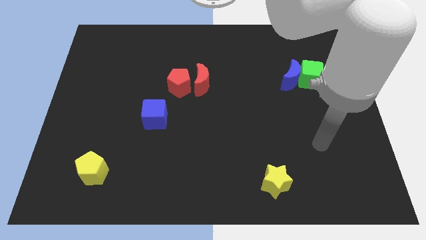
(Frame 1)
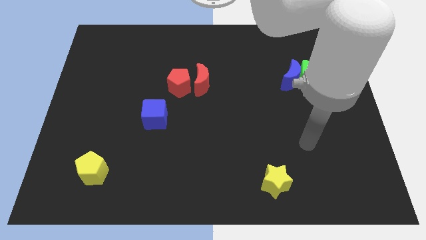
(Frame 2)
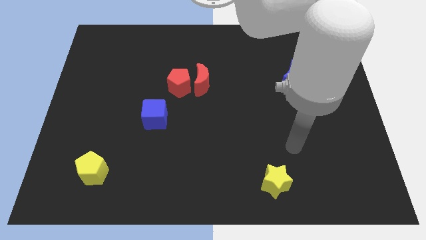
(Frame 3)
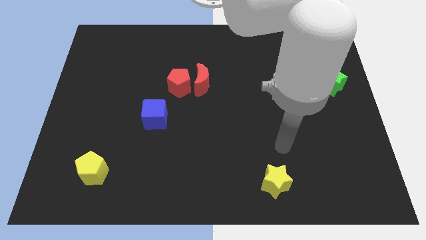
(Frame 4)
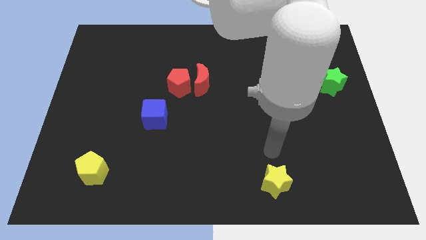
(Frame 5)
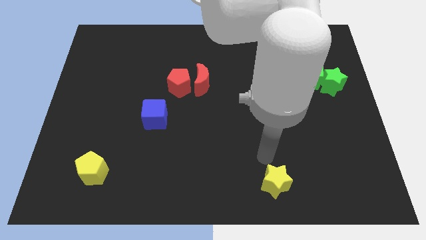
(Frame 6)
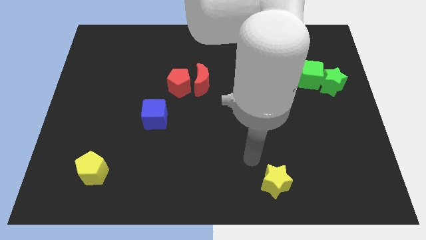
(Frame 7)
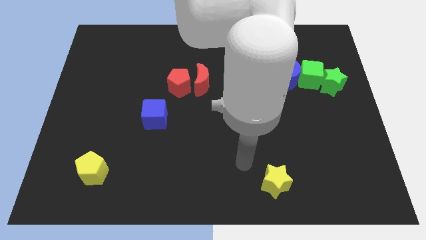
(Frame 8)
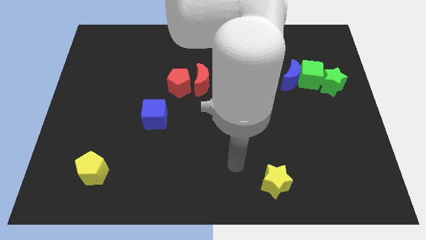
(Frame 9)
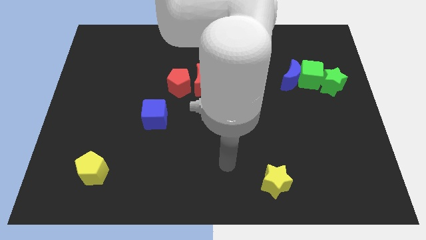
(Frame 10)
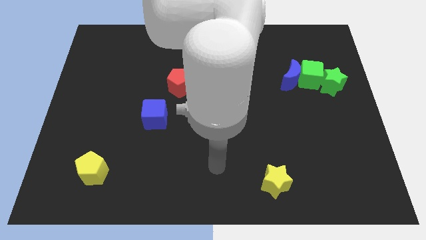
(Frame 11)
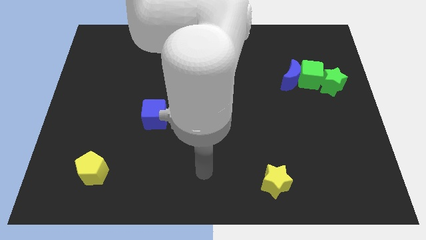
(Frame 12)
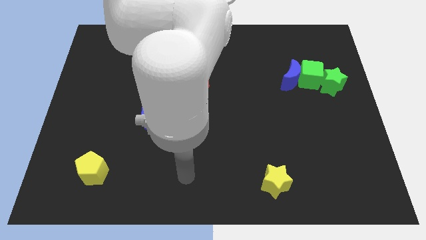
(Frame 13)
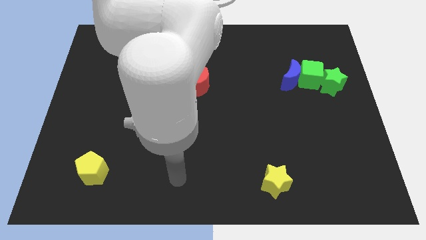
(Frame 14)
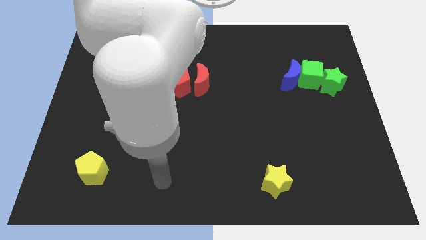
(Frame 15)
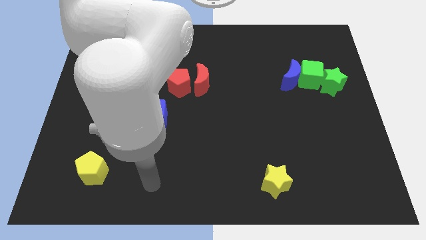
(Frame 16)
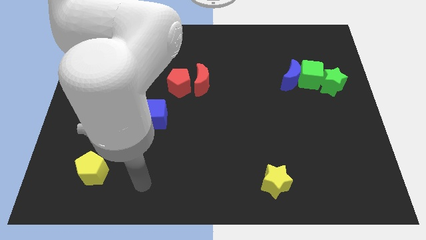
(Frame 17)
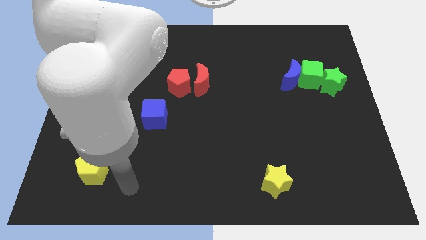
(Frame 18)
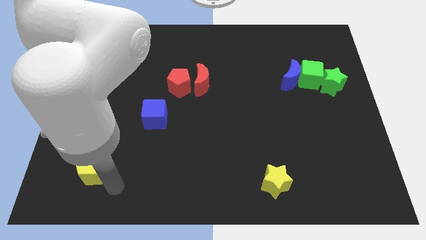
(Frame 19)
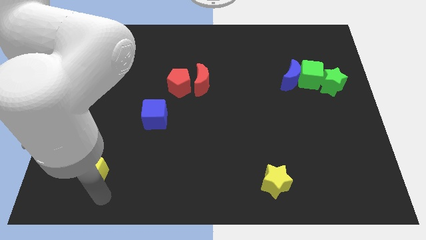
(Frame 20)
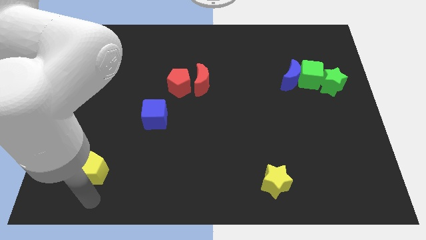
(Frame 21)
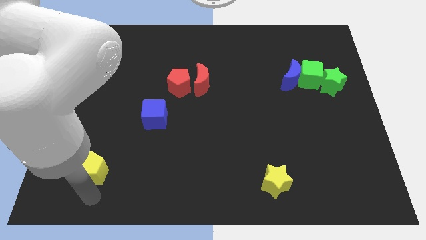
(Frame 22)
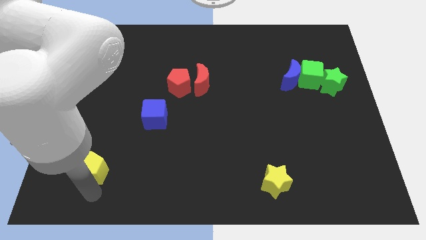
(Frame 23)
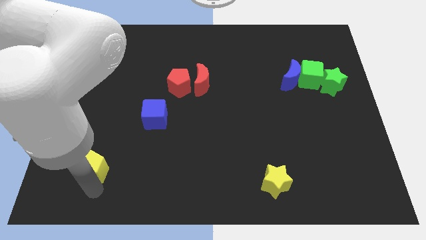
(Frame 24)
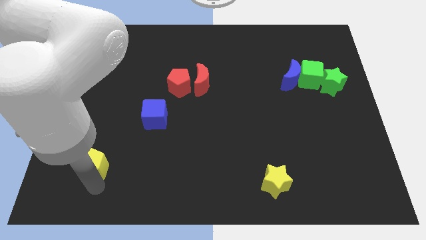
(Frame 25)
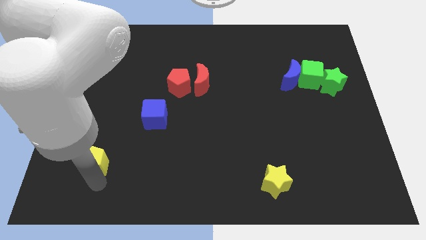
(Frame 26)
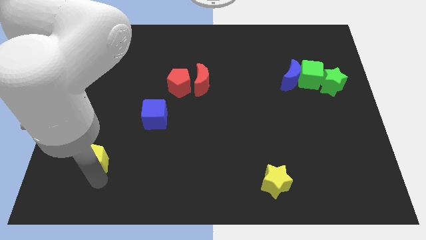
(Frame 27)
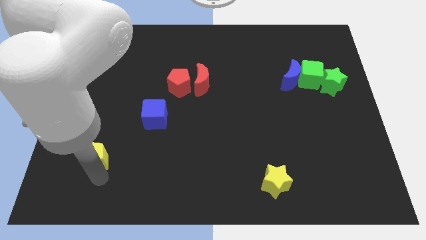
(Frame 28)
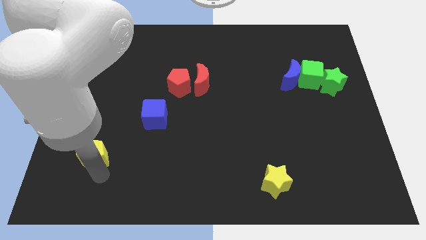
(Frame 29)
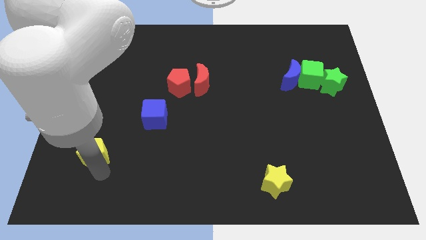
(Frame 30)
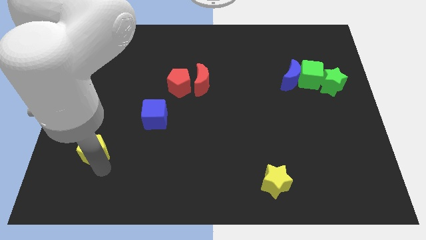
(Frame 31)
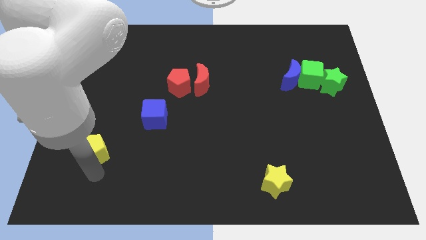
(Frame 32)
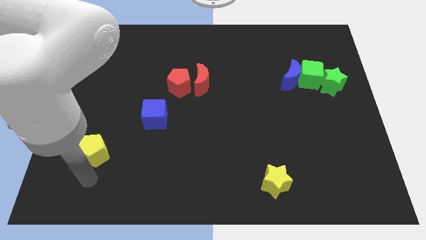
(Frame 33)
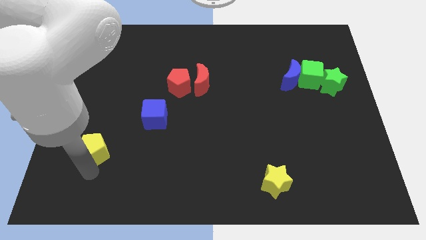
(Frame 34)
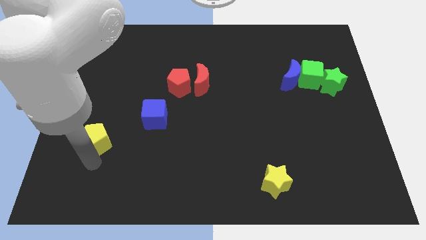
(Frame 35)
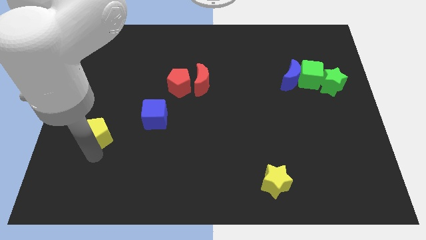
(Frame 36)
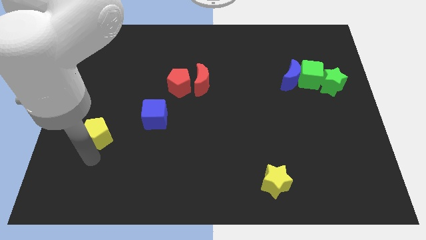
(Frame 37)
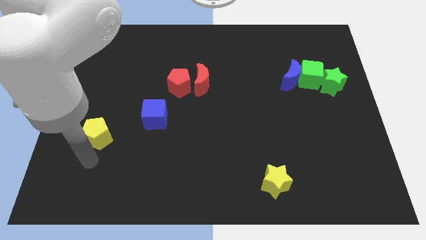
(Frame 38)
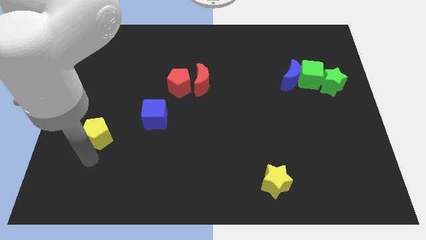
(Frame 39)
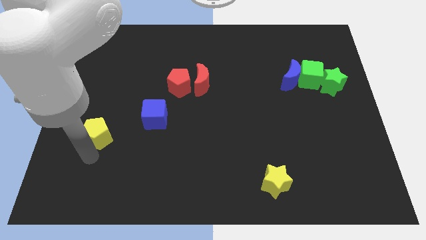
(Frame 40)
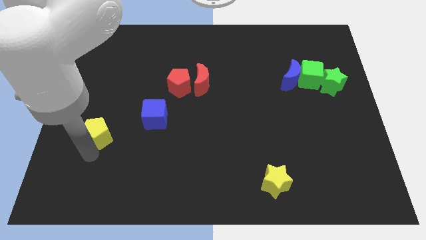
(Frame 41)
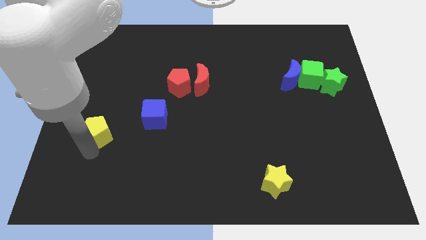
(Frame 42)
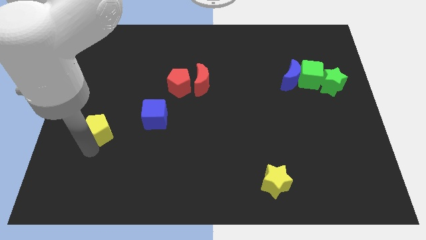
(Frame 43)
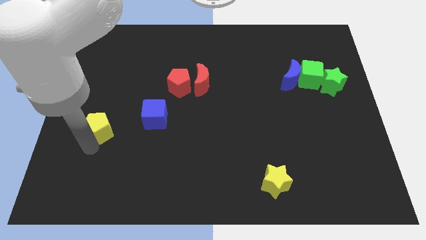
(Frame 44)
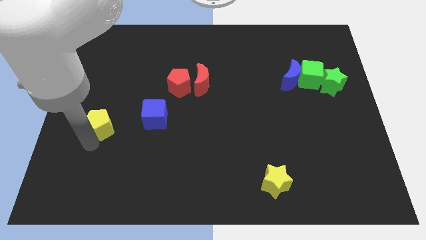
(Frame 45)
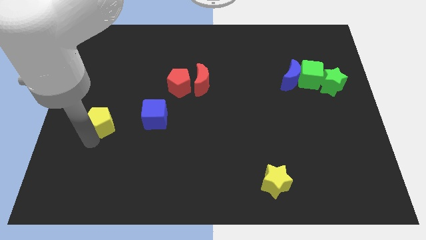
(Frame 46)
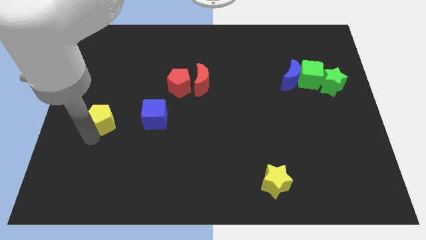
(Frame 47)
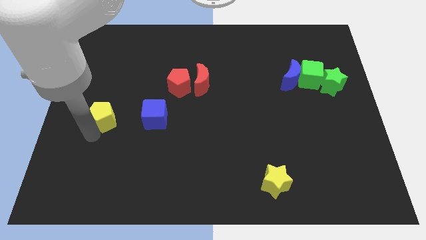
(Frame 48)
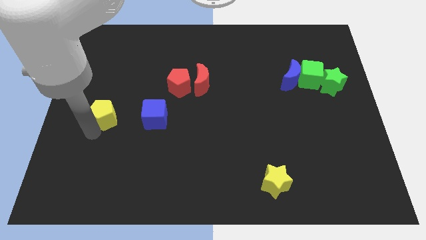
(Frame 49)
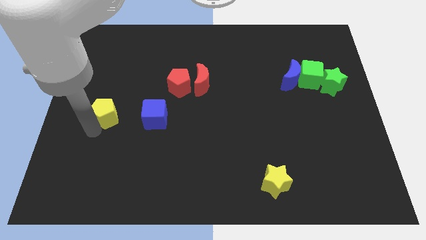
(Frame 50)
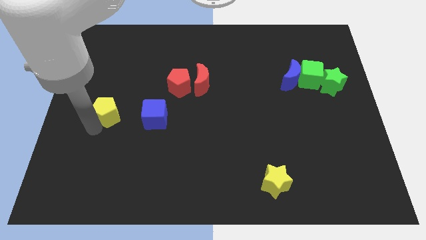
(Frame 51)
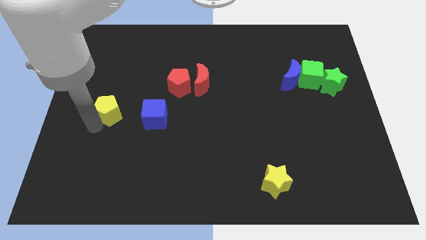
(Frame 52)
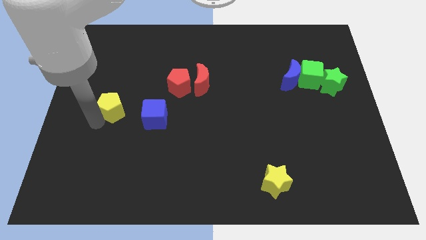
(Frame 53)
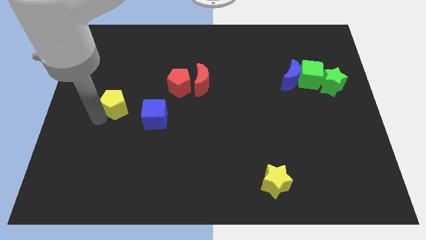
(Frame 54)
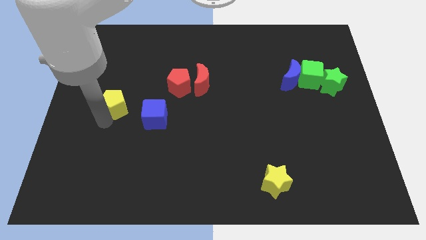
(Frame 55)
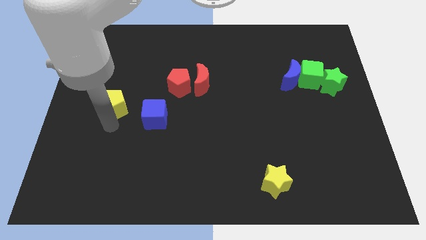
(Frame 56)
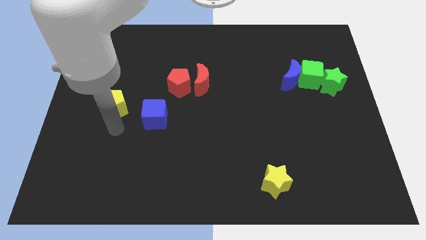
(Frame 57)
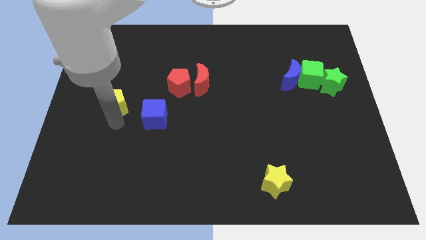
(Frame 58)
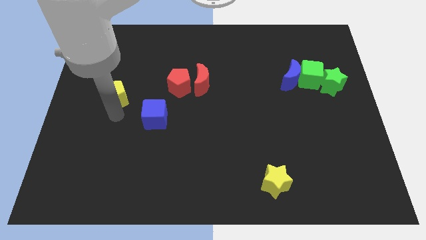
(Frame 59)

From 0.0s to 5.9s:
slide the yellow pentagon upwards

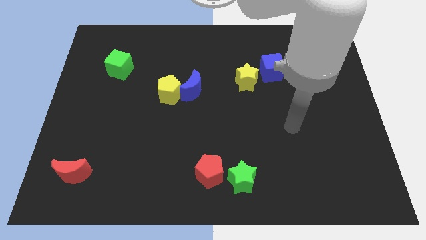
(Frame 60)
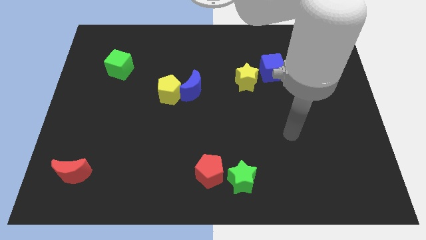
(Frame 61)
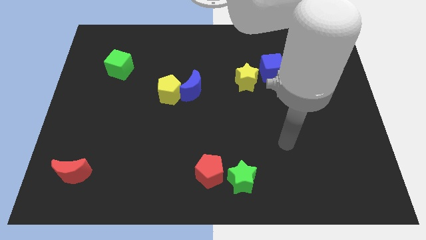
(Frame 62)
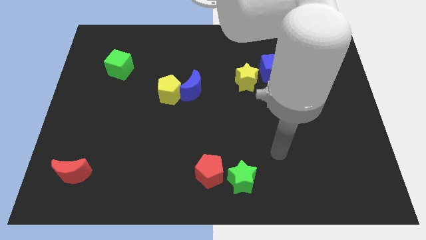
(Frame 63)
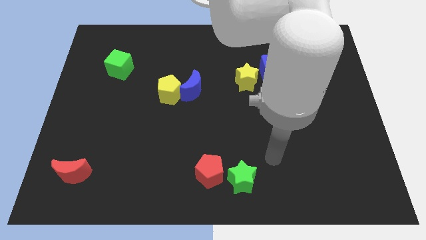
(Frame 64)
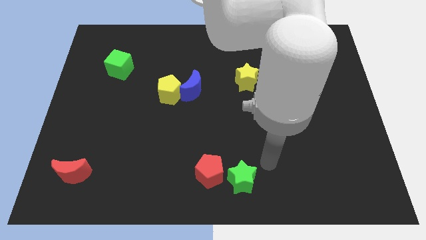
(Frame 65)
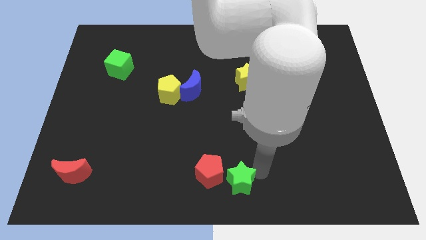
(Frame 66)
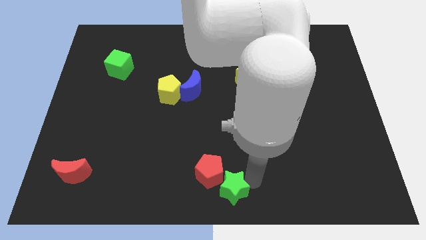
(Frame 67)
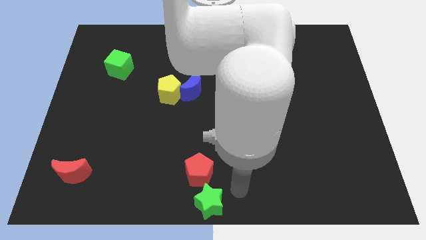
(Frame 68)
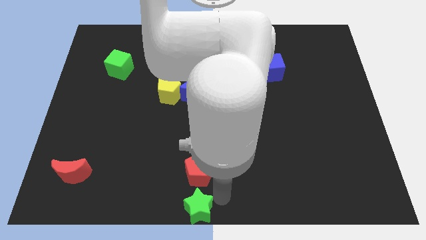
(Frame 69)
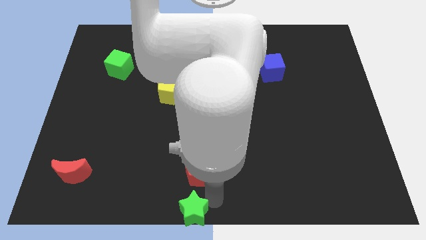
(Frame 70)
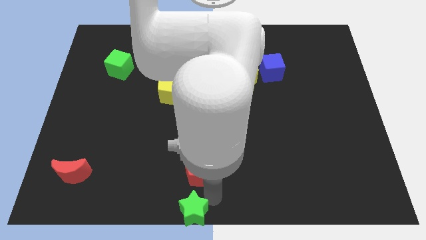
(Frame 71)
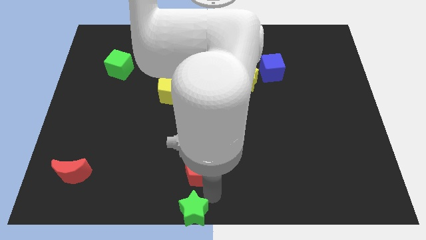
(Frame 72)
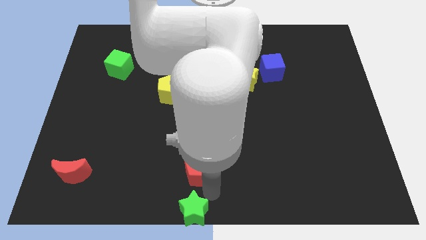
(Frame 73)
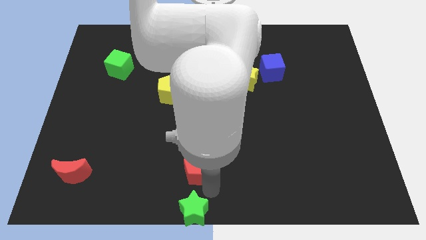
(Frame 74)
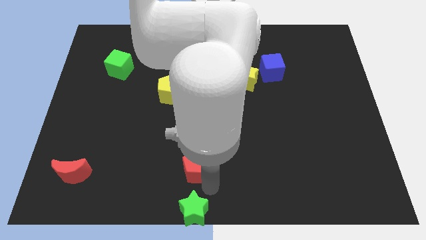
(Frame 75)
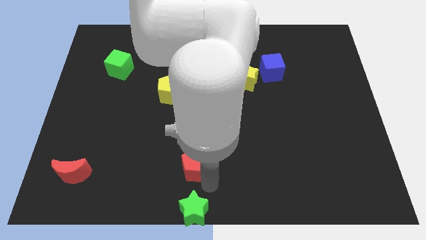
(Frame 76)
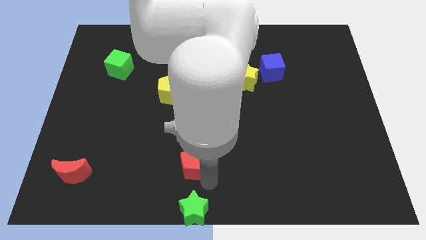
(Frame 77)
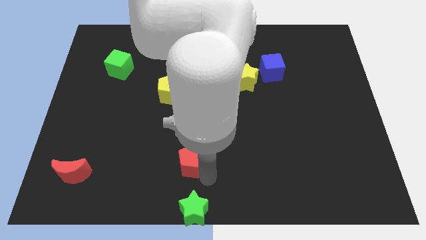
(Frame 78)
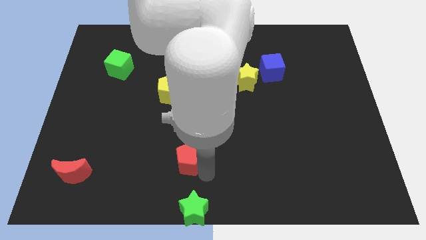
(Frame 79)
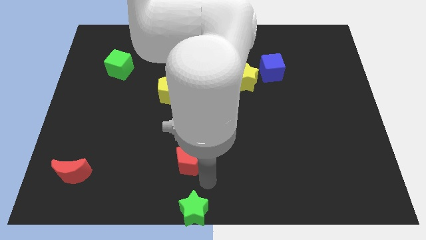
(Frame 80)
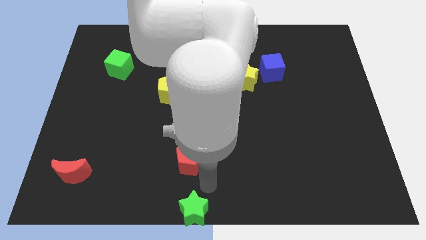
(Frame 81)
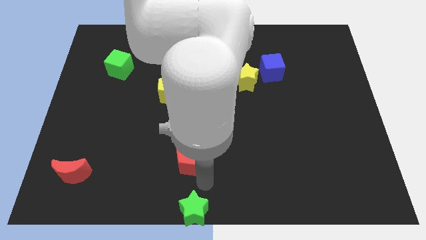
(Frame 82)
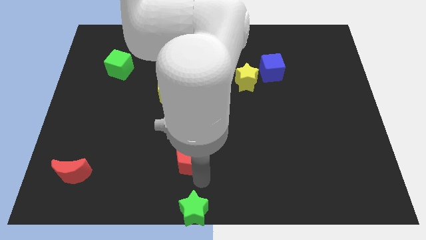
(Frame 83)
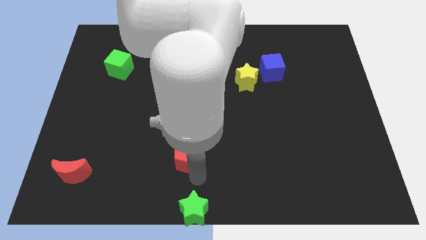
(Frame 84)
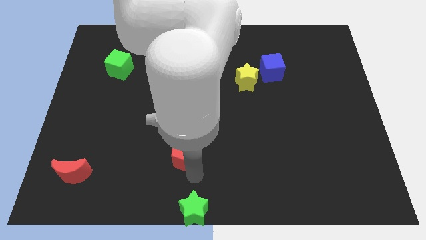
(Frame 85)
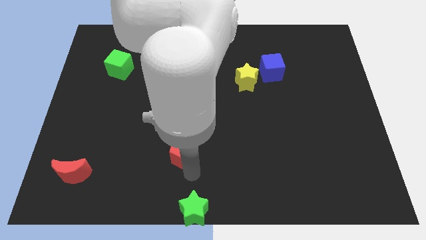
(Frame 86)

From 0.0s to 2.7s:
move the red pentagon a bit up and then left
